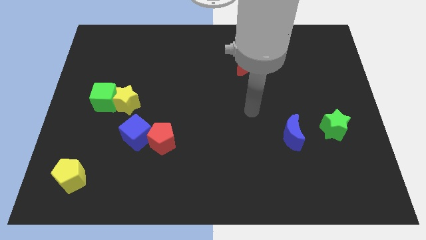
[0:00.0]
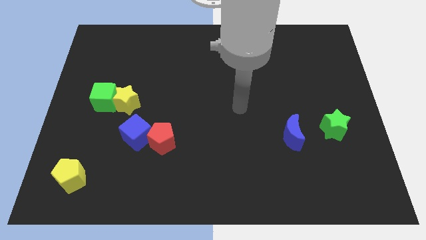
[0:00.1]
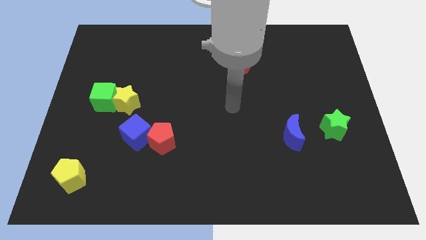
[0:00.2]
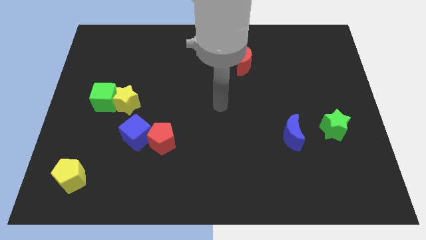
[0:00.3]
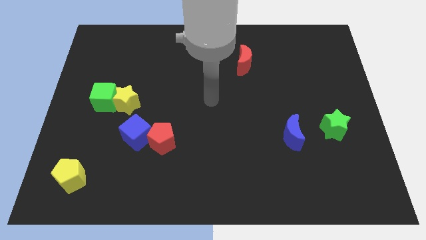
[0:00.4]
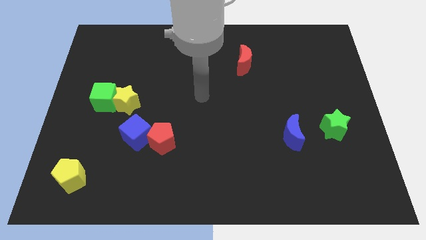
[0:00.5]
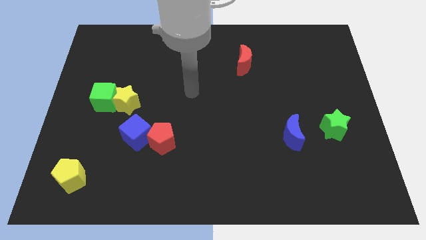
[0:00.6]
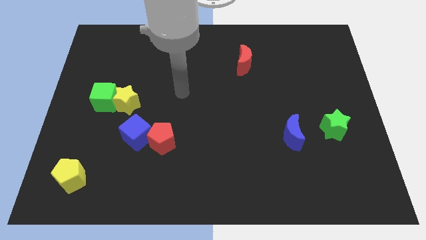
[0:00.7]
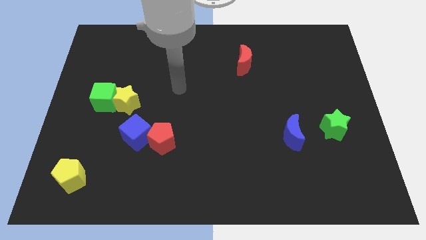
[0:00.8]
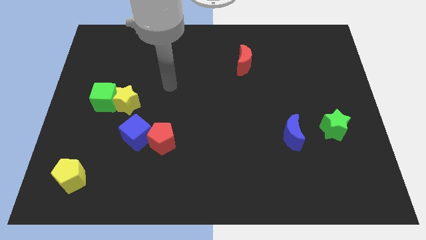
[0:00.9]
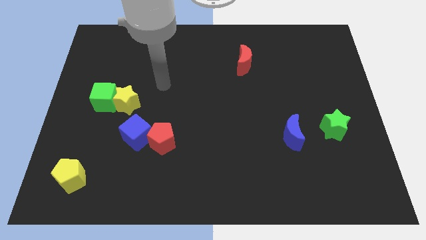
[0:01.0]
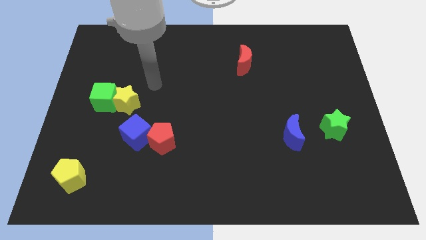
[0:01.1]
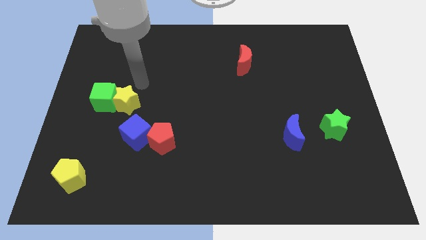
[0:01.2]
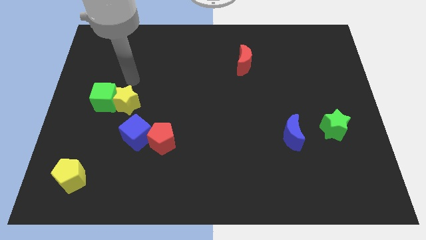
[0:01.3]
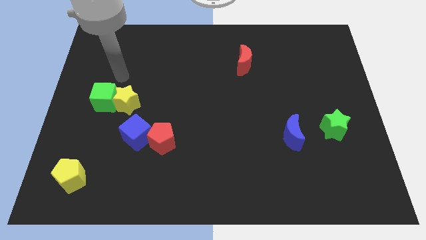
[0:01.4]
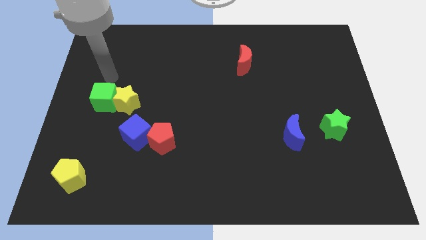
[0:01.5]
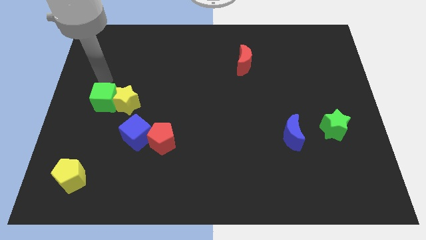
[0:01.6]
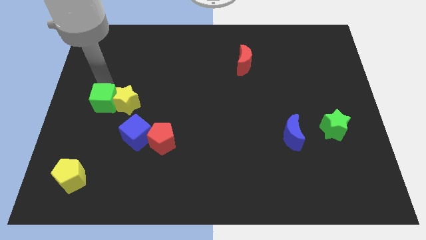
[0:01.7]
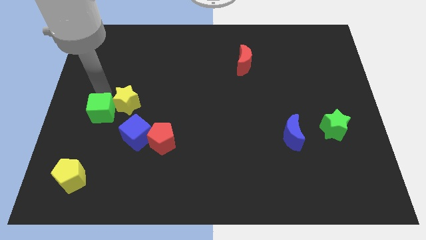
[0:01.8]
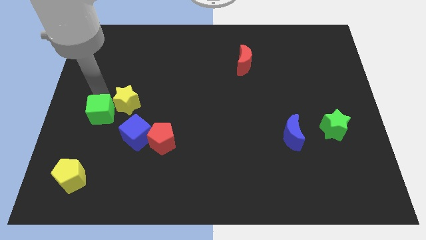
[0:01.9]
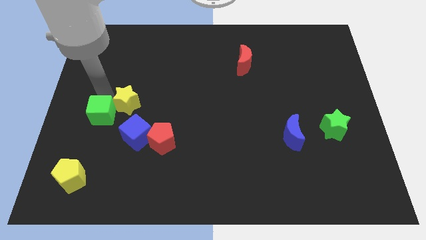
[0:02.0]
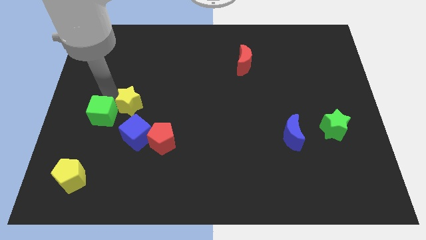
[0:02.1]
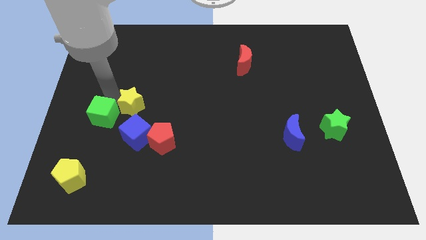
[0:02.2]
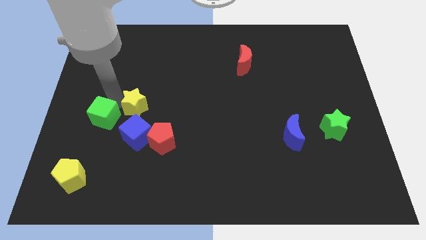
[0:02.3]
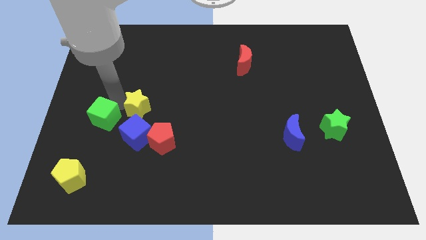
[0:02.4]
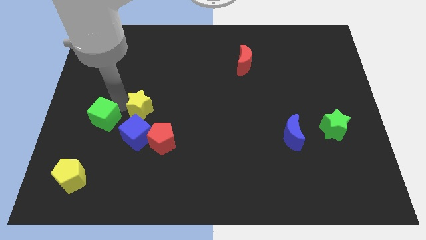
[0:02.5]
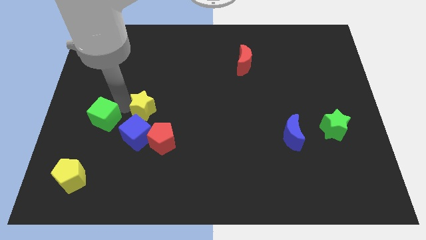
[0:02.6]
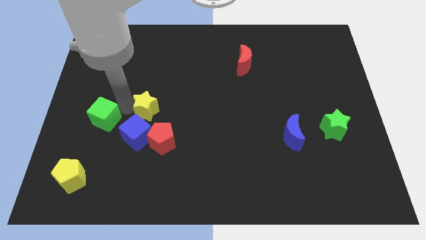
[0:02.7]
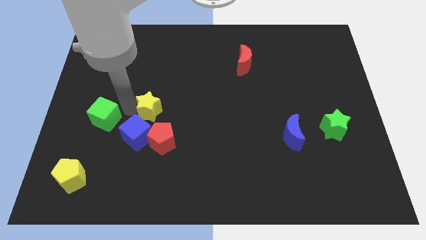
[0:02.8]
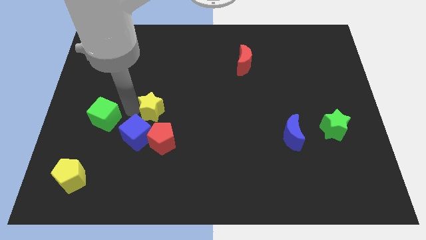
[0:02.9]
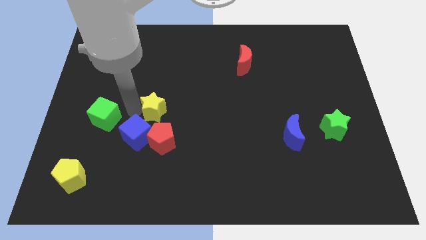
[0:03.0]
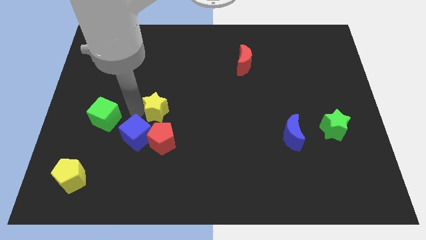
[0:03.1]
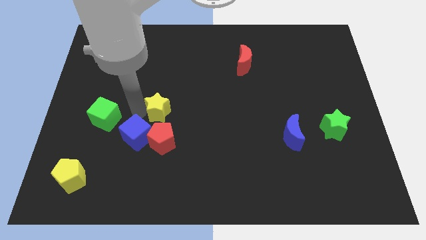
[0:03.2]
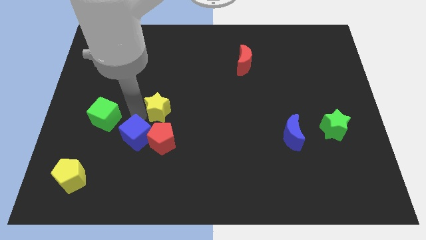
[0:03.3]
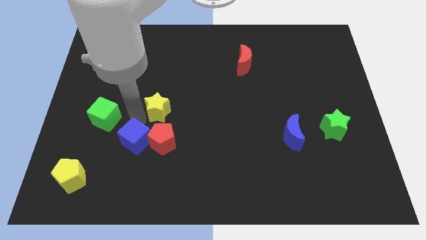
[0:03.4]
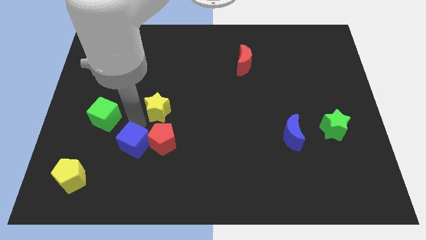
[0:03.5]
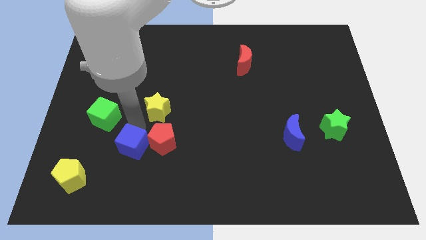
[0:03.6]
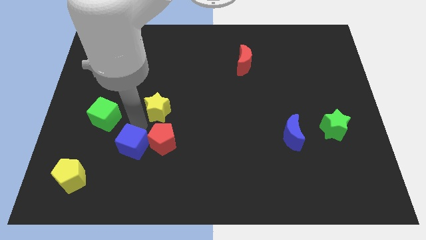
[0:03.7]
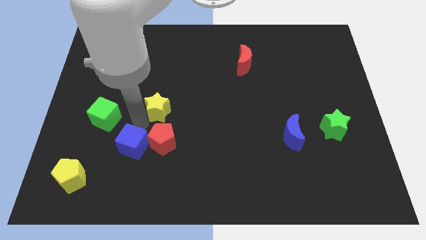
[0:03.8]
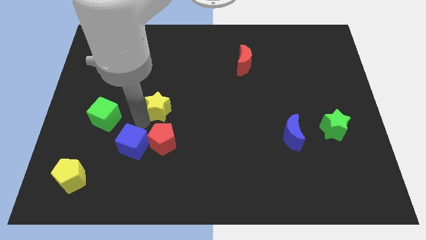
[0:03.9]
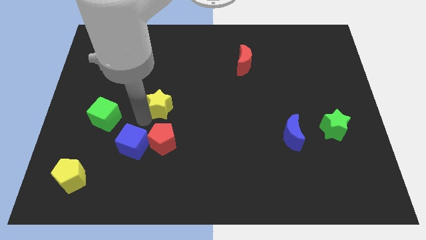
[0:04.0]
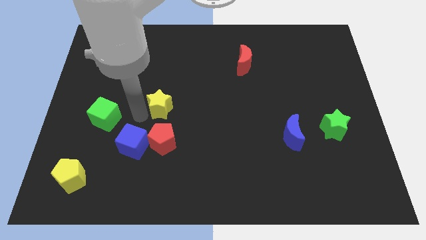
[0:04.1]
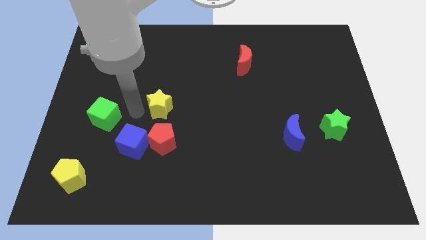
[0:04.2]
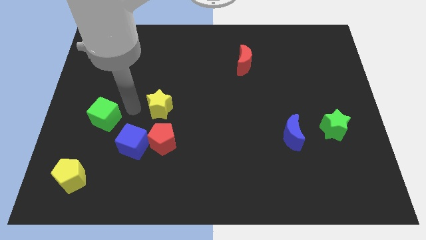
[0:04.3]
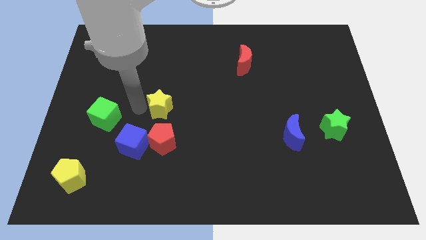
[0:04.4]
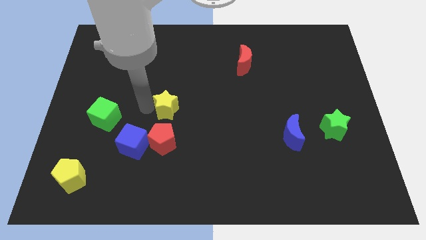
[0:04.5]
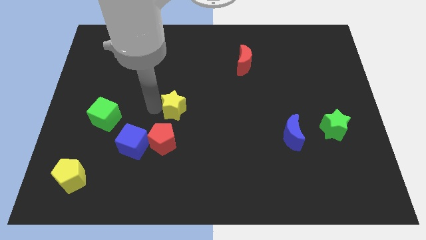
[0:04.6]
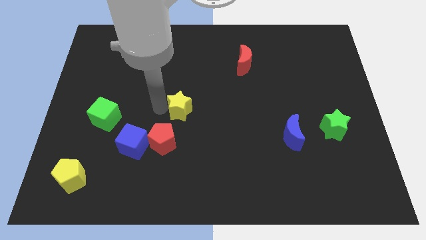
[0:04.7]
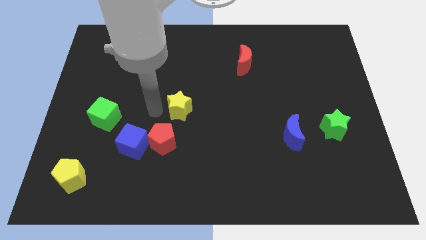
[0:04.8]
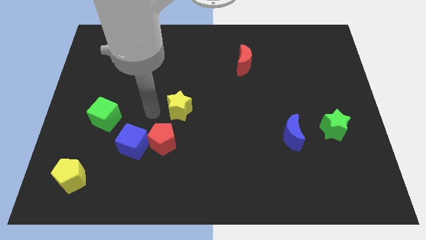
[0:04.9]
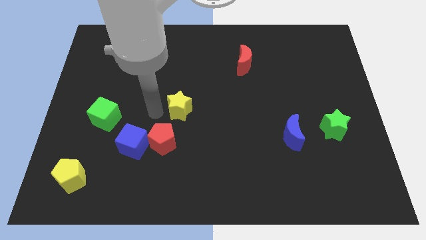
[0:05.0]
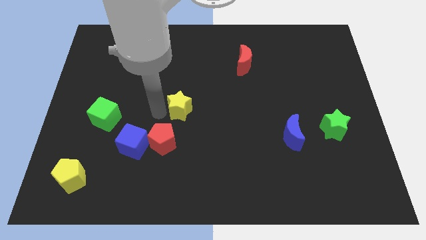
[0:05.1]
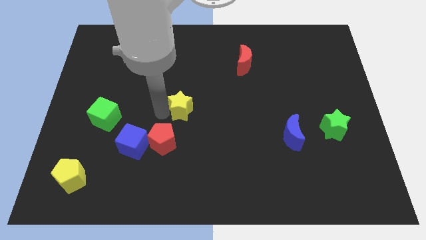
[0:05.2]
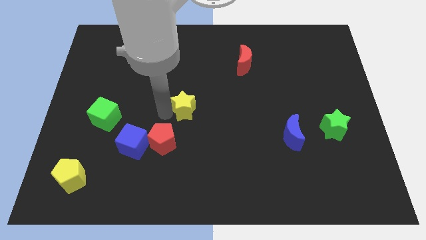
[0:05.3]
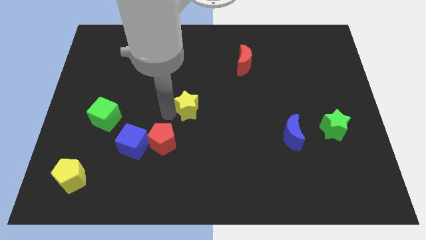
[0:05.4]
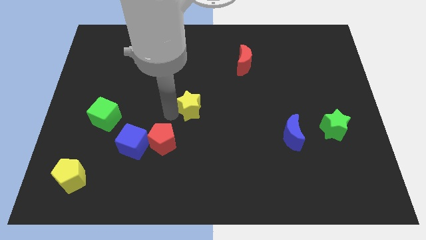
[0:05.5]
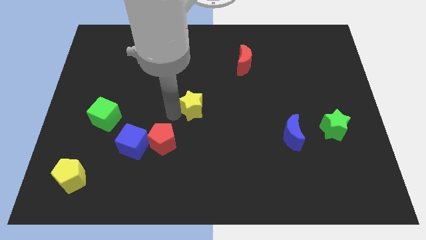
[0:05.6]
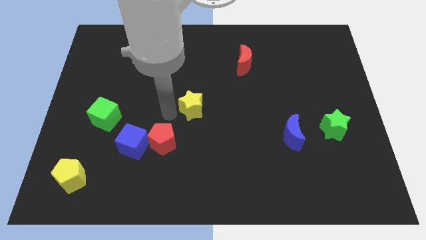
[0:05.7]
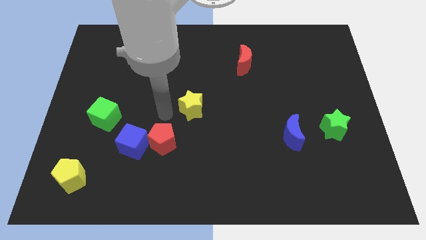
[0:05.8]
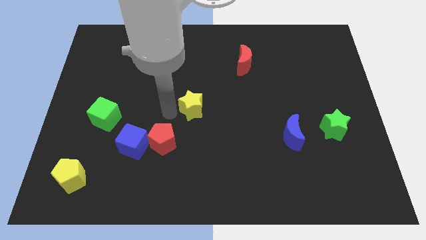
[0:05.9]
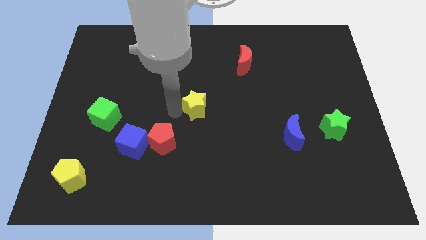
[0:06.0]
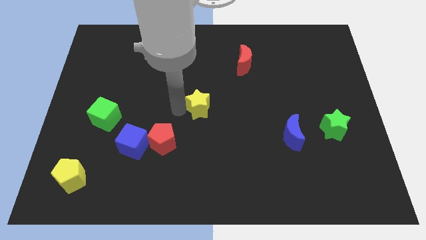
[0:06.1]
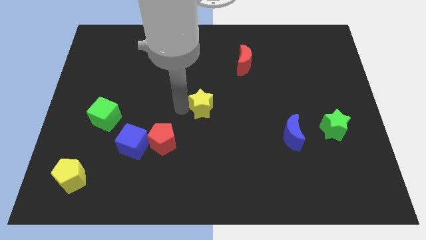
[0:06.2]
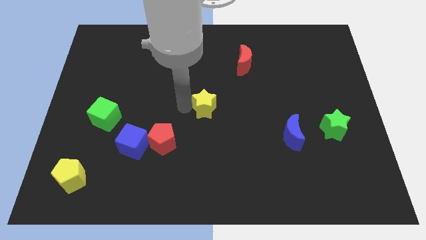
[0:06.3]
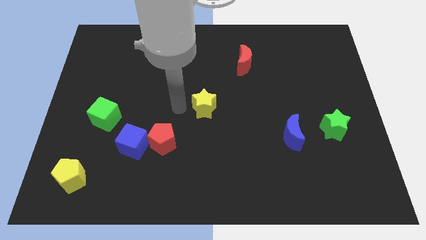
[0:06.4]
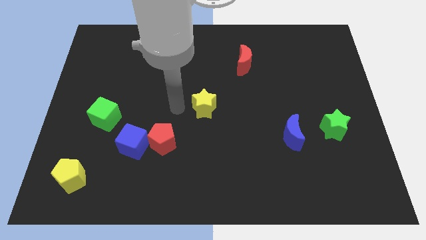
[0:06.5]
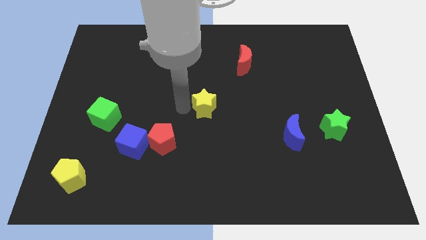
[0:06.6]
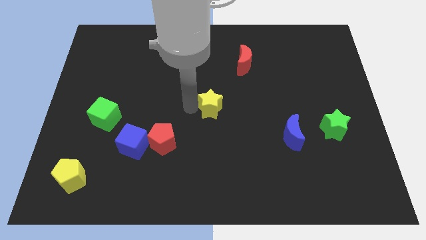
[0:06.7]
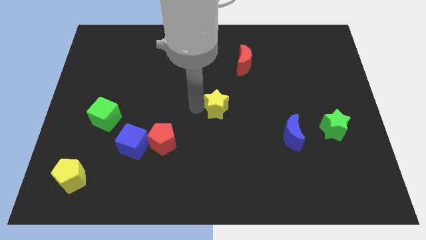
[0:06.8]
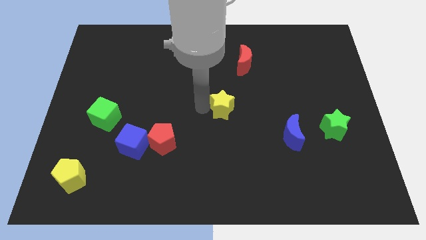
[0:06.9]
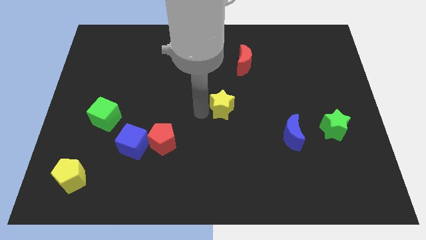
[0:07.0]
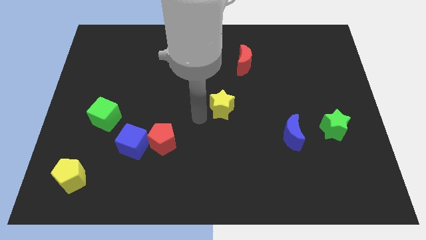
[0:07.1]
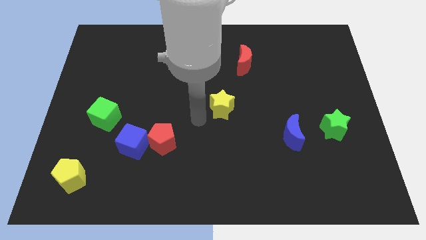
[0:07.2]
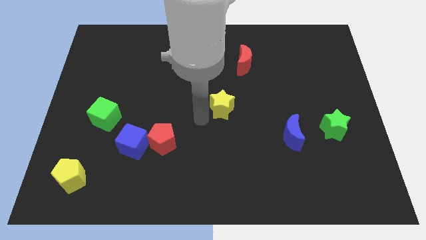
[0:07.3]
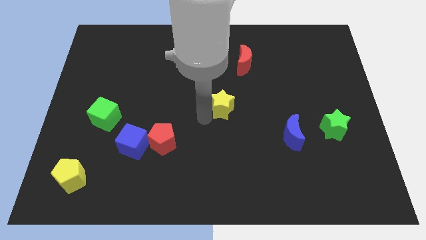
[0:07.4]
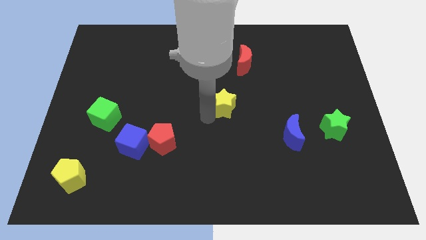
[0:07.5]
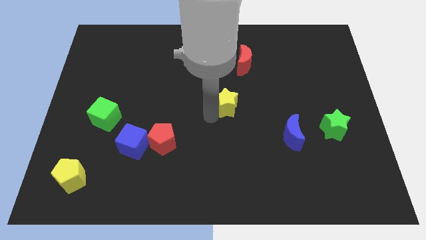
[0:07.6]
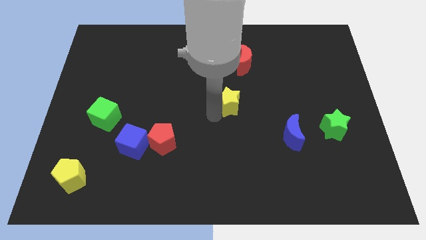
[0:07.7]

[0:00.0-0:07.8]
slide the yellow star below the red moon

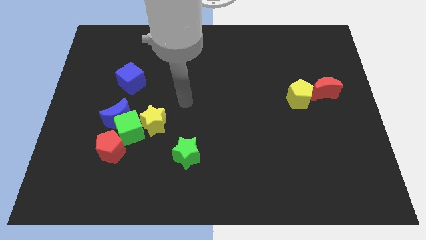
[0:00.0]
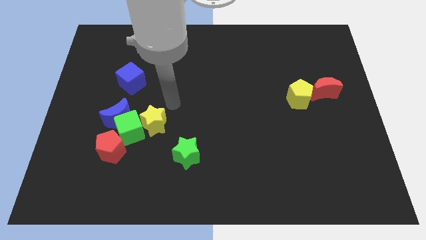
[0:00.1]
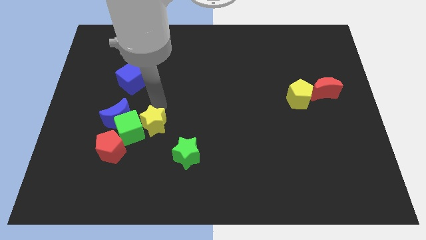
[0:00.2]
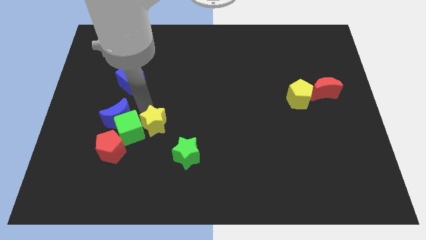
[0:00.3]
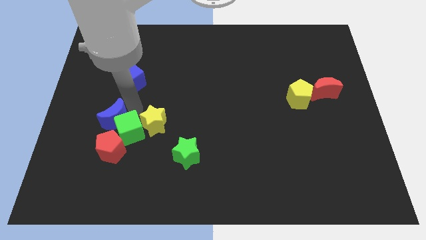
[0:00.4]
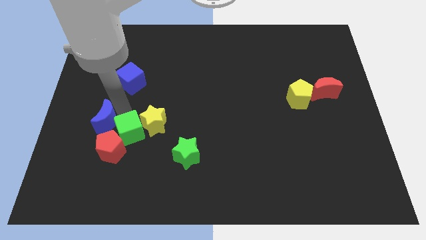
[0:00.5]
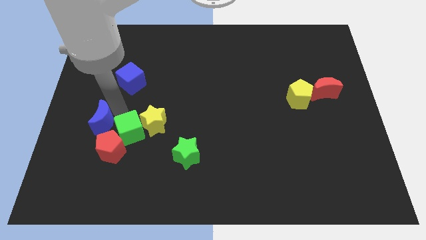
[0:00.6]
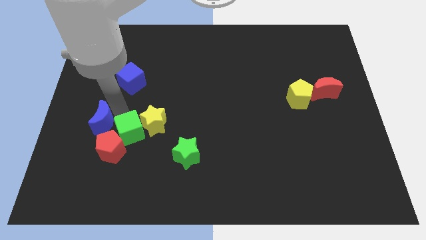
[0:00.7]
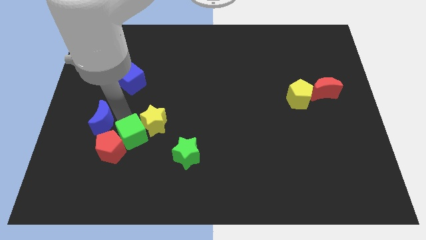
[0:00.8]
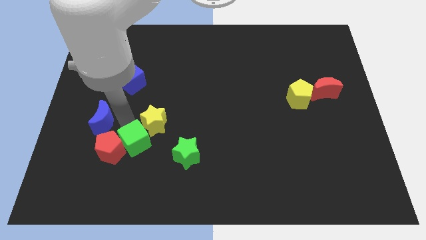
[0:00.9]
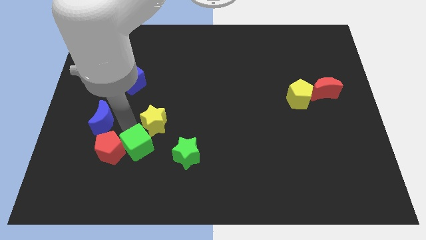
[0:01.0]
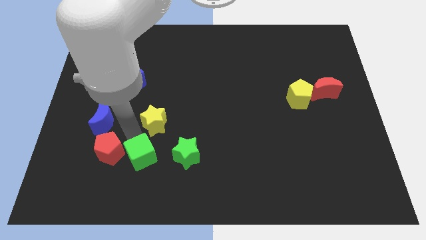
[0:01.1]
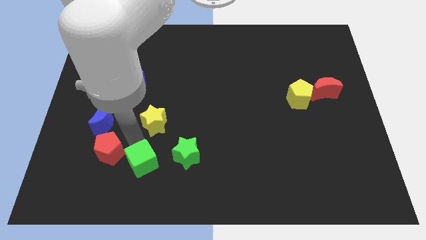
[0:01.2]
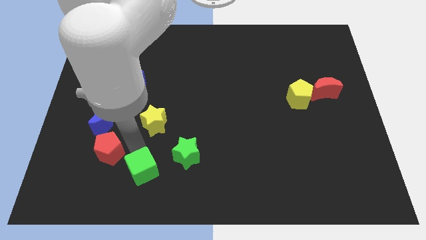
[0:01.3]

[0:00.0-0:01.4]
push the green cube diagonally down and to the left of the green star
